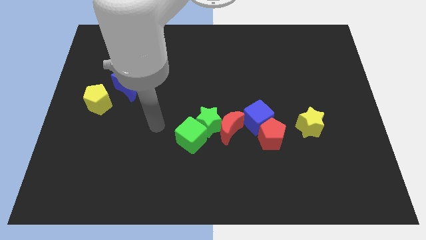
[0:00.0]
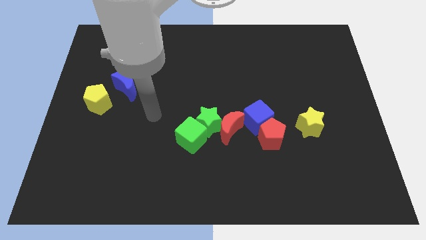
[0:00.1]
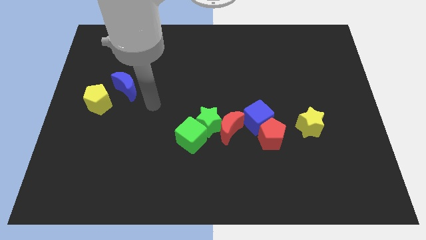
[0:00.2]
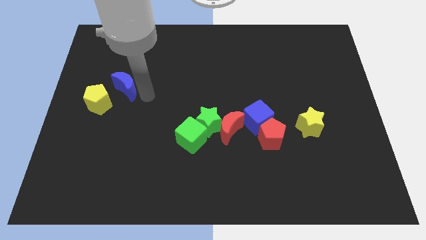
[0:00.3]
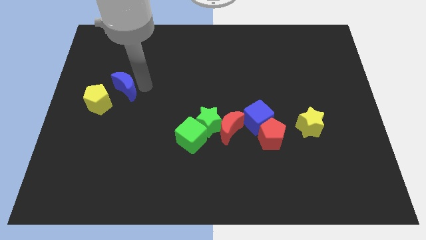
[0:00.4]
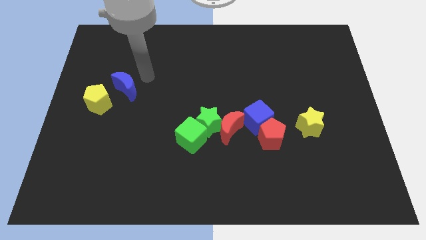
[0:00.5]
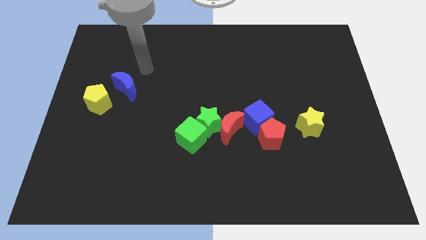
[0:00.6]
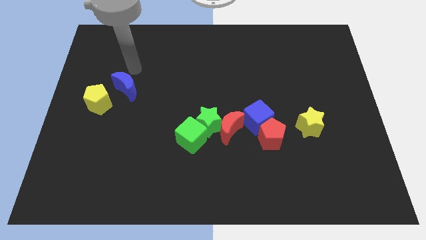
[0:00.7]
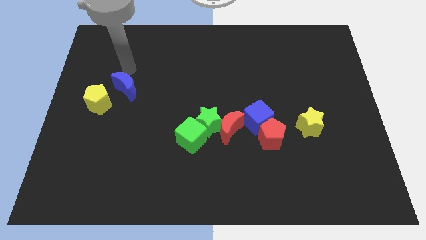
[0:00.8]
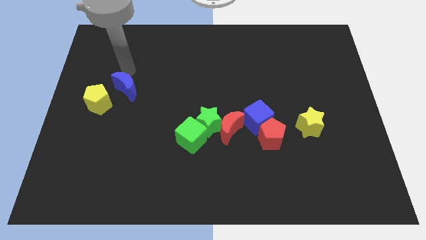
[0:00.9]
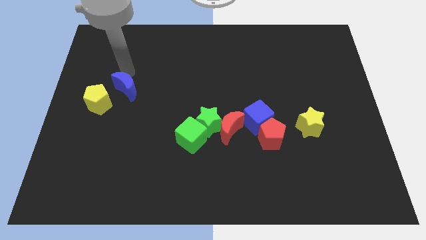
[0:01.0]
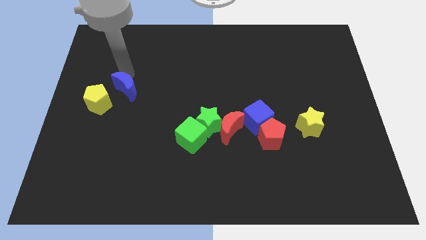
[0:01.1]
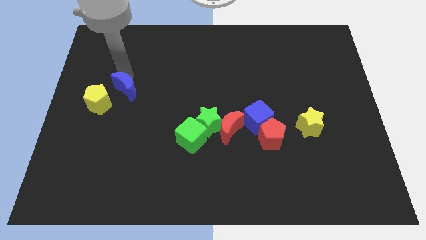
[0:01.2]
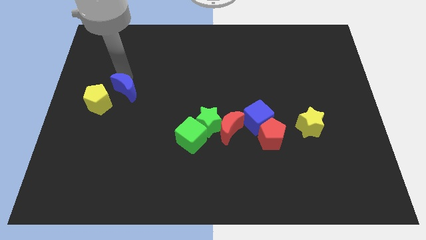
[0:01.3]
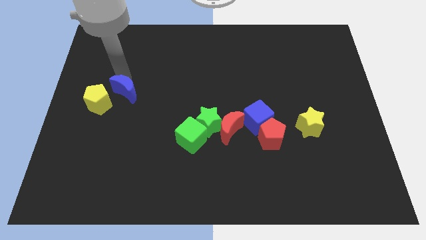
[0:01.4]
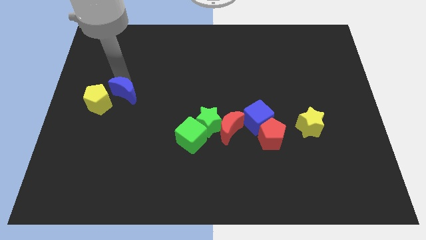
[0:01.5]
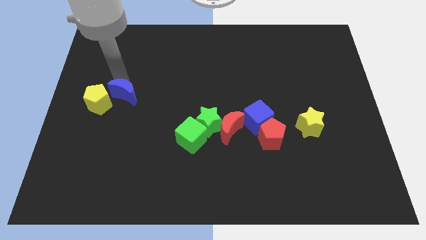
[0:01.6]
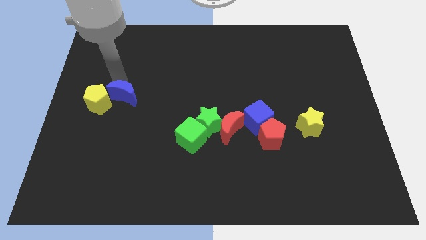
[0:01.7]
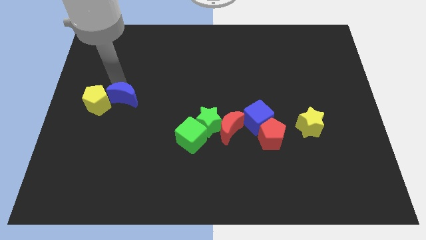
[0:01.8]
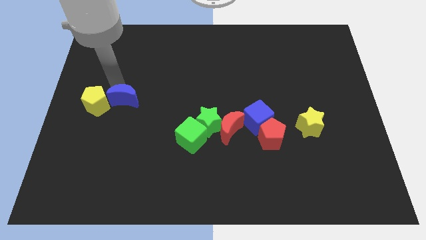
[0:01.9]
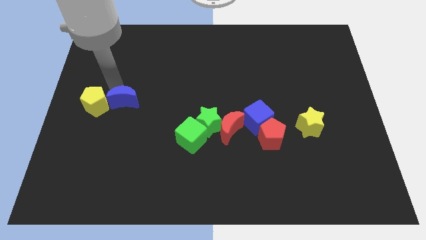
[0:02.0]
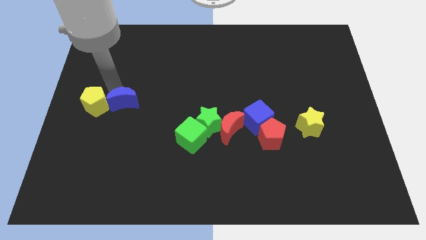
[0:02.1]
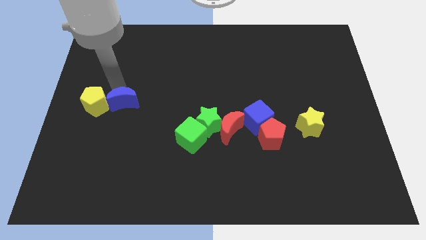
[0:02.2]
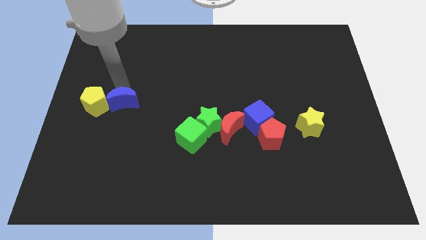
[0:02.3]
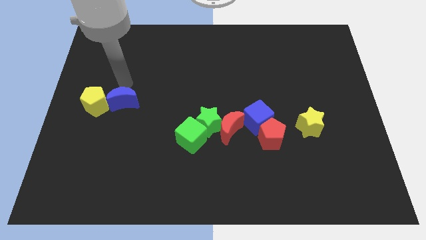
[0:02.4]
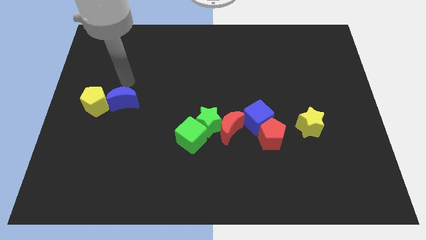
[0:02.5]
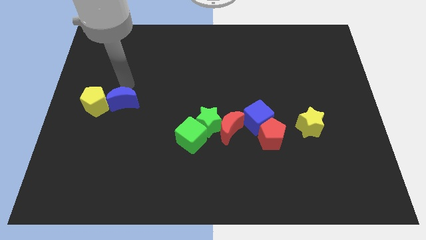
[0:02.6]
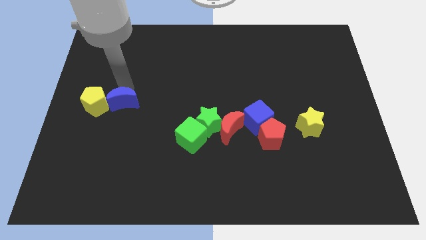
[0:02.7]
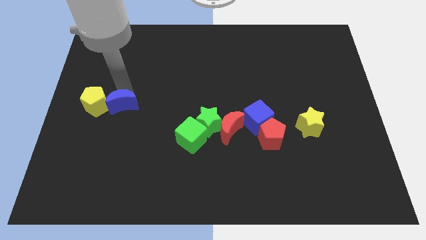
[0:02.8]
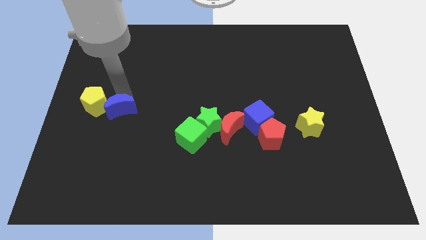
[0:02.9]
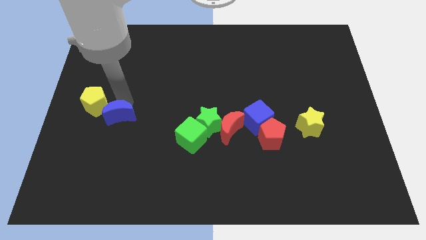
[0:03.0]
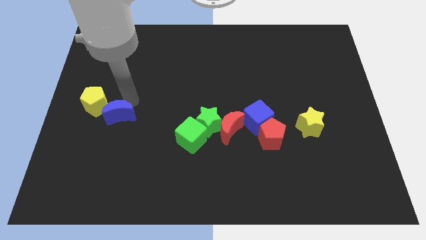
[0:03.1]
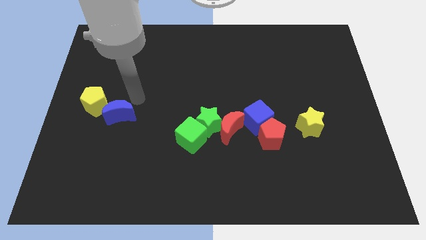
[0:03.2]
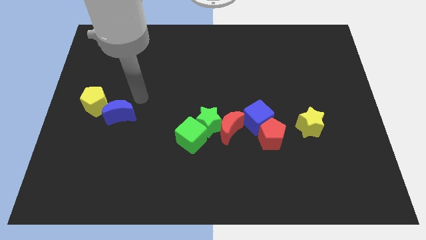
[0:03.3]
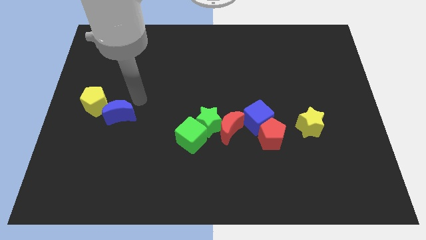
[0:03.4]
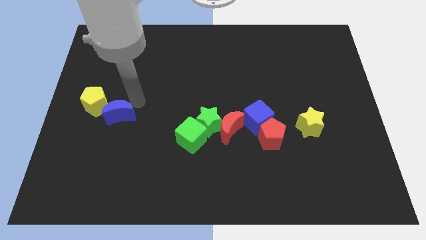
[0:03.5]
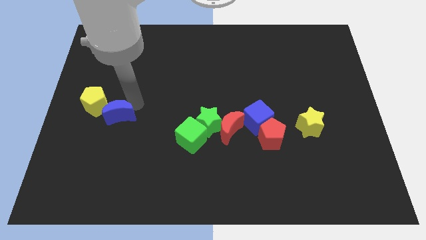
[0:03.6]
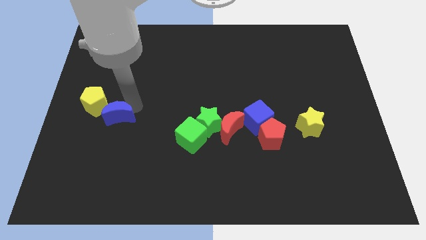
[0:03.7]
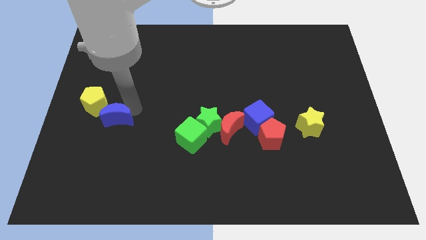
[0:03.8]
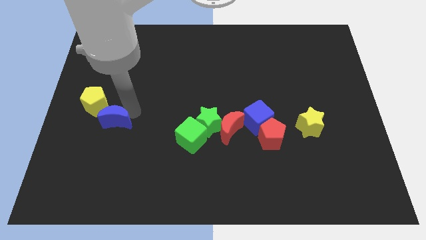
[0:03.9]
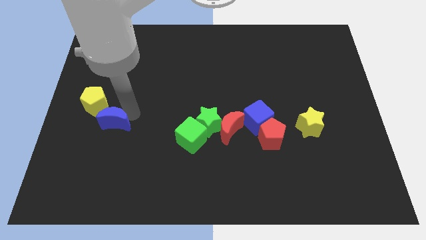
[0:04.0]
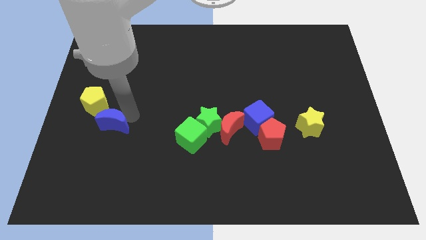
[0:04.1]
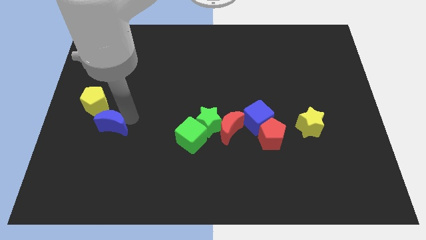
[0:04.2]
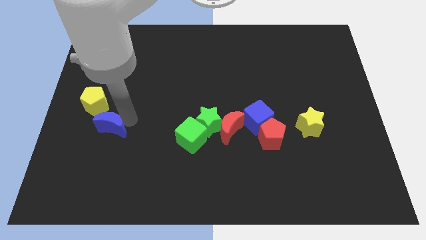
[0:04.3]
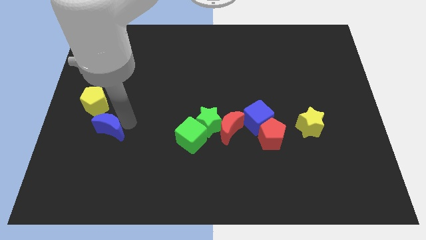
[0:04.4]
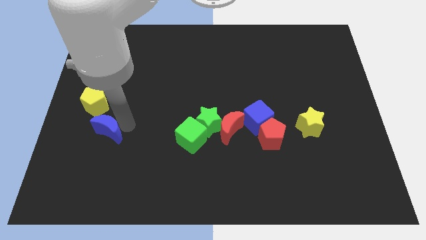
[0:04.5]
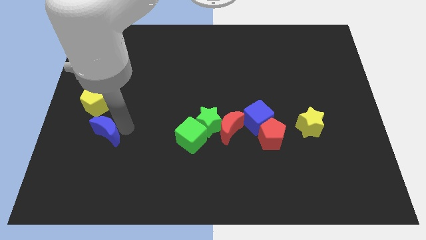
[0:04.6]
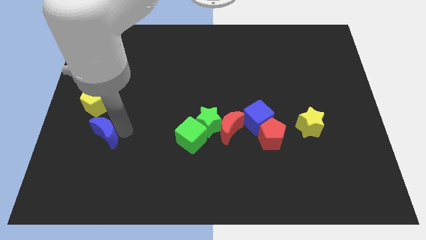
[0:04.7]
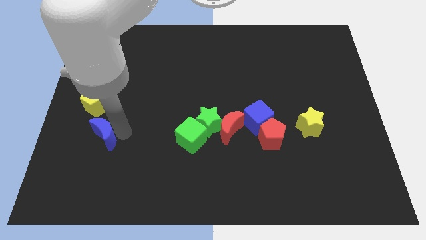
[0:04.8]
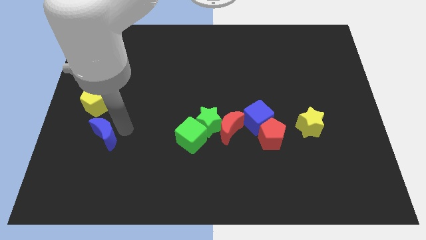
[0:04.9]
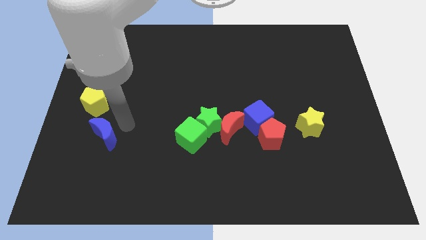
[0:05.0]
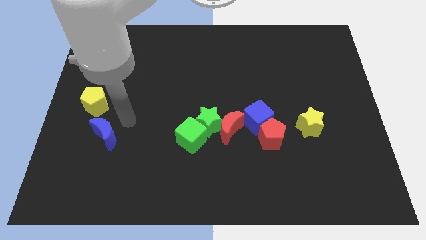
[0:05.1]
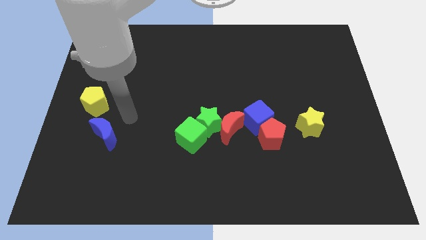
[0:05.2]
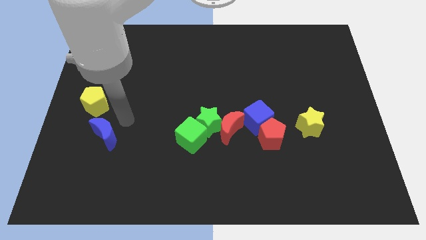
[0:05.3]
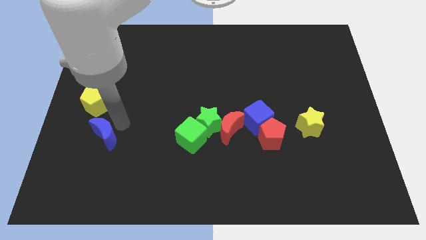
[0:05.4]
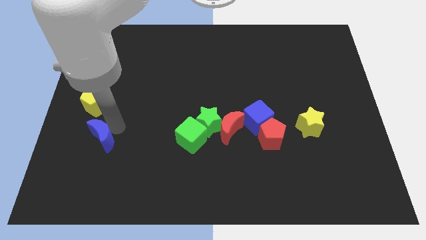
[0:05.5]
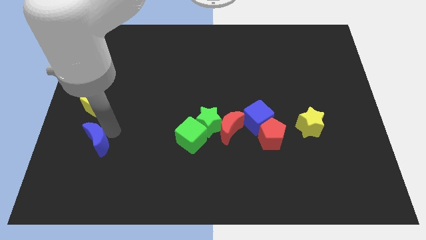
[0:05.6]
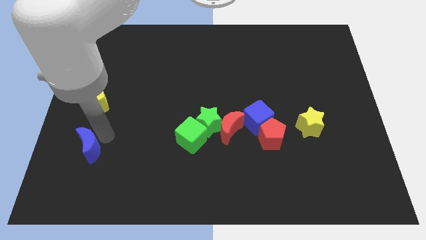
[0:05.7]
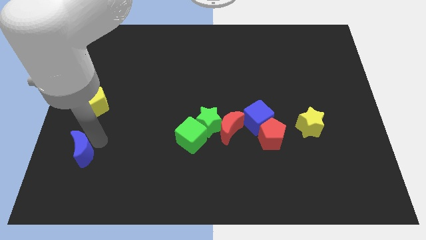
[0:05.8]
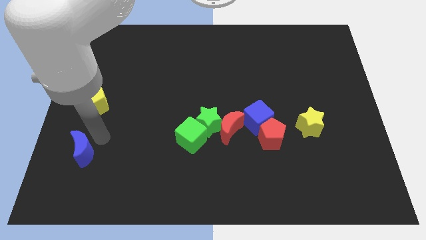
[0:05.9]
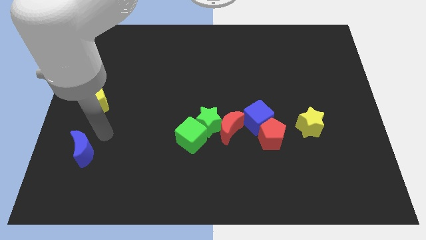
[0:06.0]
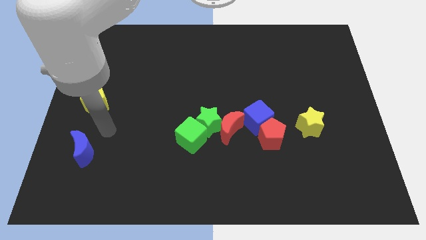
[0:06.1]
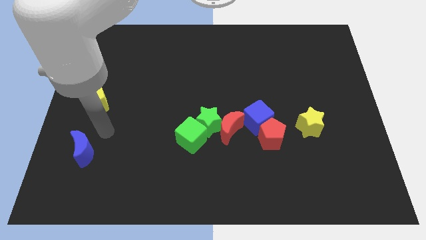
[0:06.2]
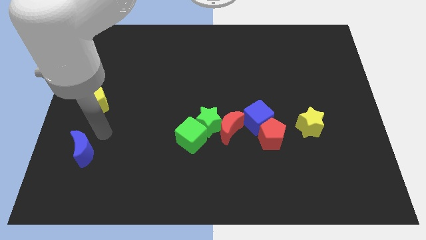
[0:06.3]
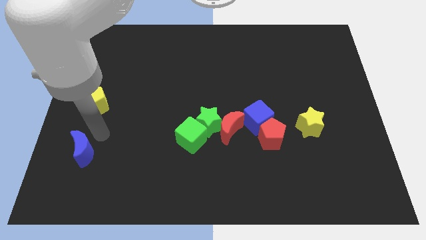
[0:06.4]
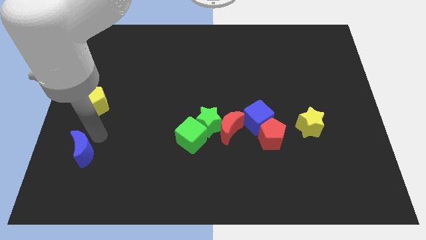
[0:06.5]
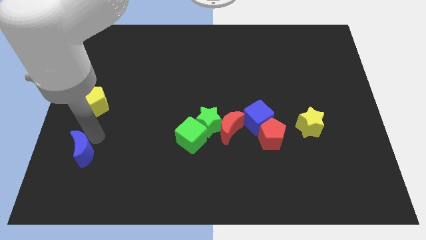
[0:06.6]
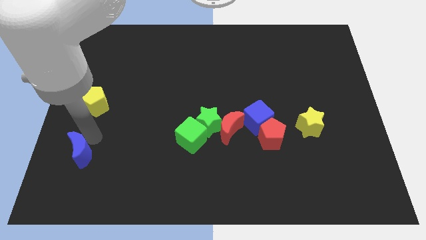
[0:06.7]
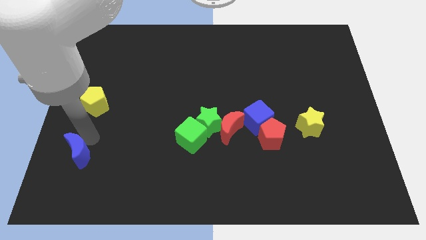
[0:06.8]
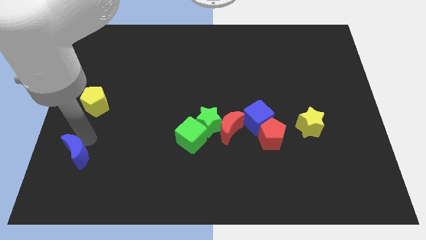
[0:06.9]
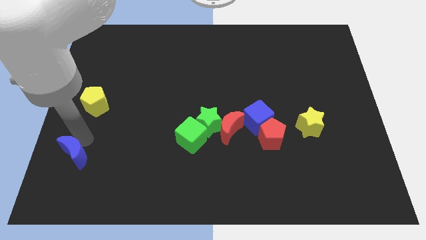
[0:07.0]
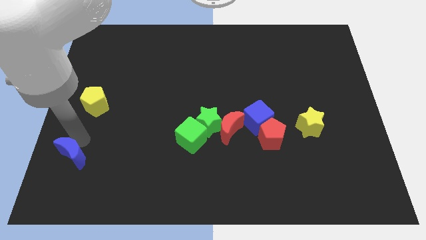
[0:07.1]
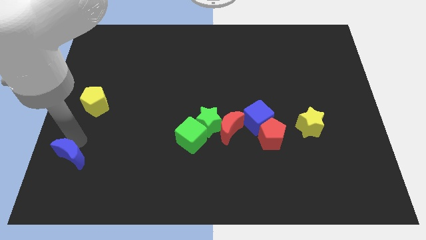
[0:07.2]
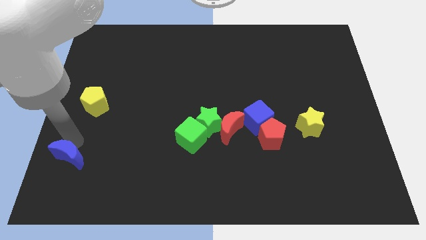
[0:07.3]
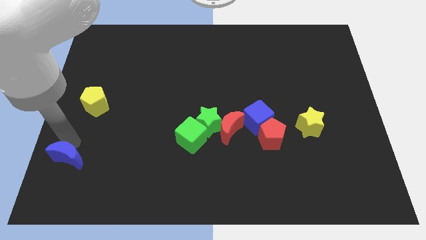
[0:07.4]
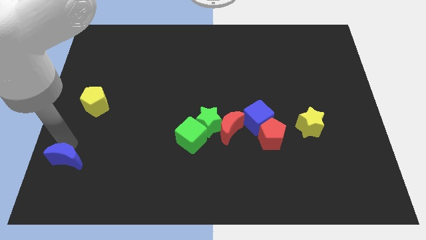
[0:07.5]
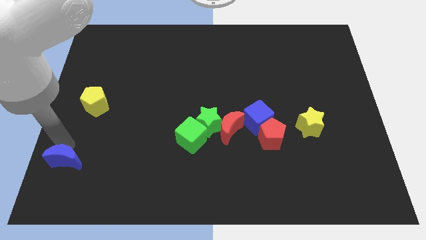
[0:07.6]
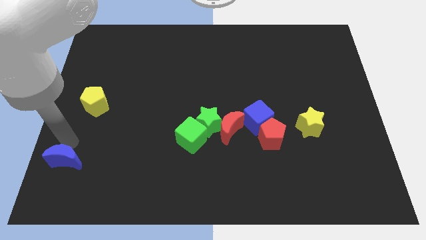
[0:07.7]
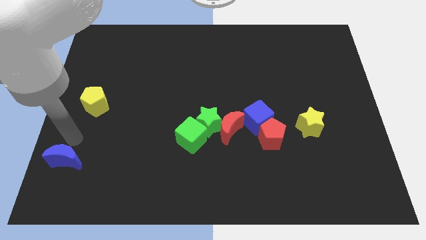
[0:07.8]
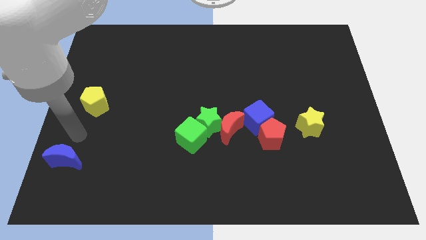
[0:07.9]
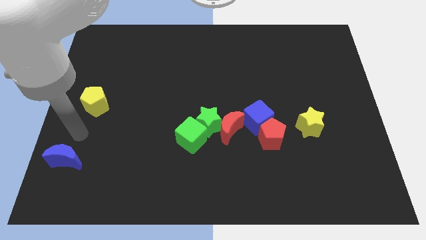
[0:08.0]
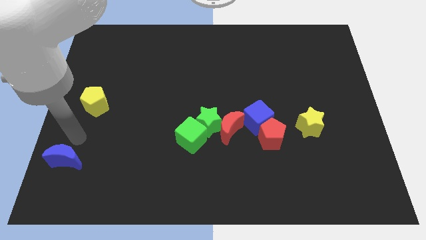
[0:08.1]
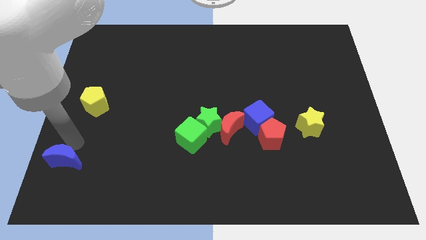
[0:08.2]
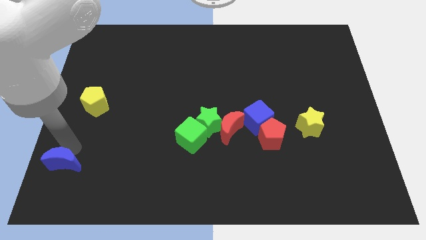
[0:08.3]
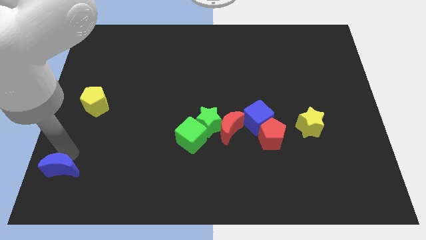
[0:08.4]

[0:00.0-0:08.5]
slide the blue moon to the lower left corner
